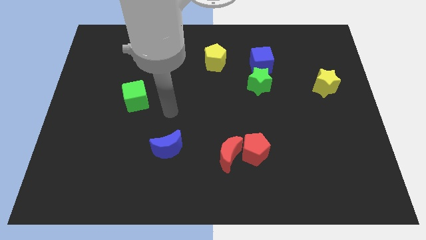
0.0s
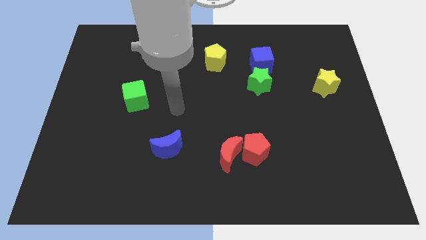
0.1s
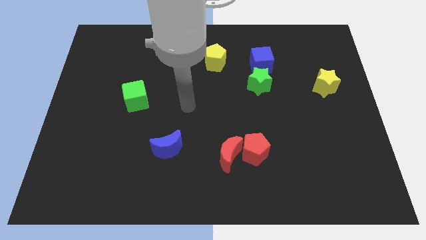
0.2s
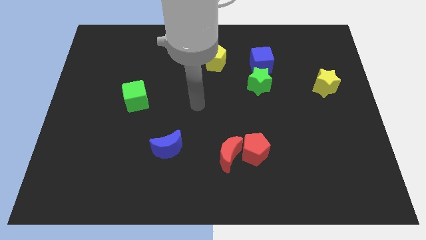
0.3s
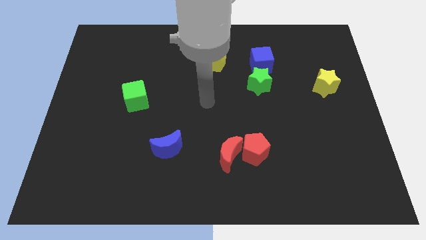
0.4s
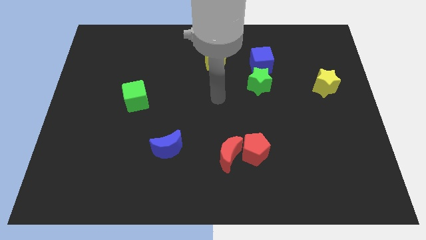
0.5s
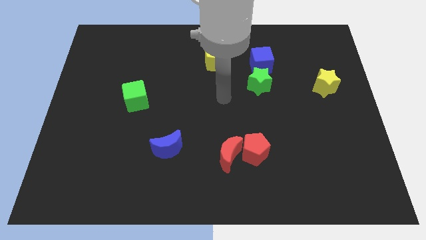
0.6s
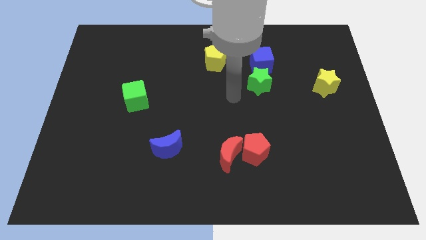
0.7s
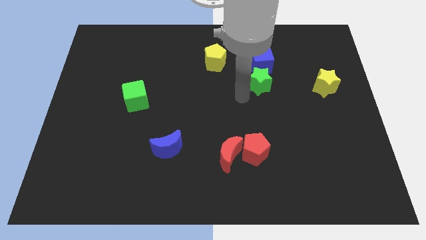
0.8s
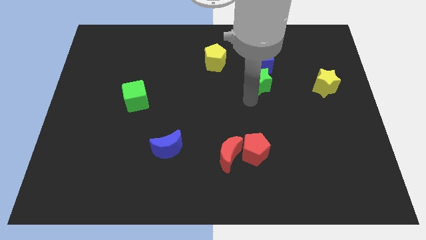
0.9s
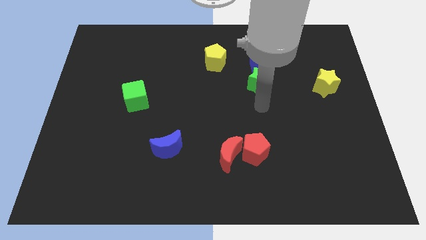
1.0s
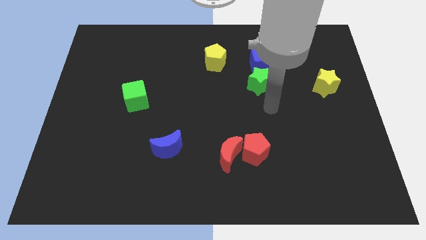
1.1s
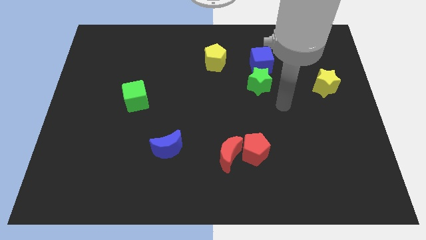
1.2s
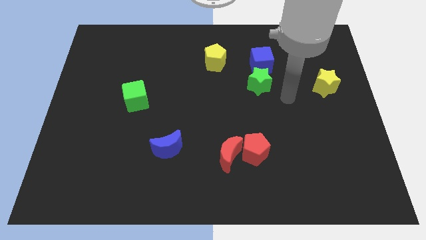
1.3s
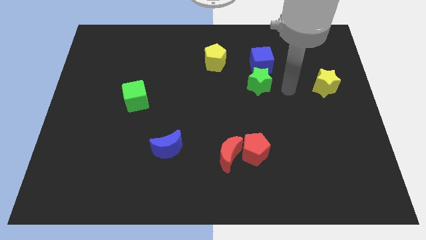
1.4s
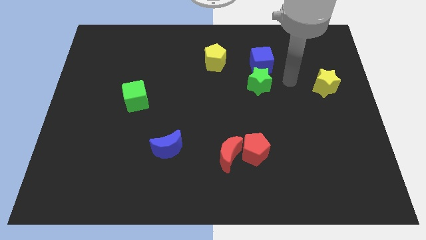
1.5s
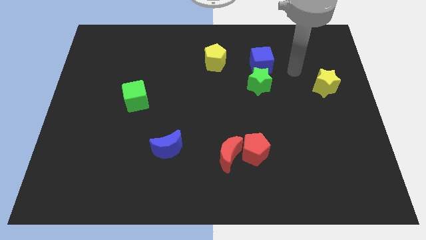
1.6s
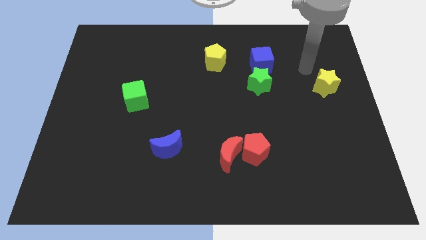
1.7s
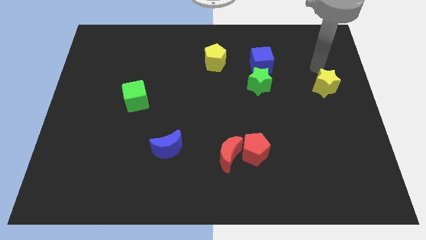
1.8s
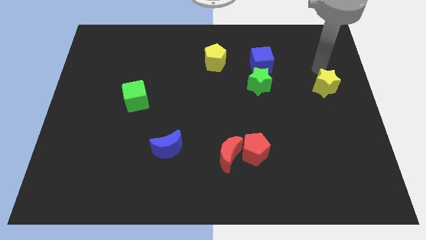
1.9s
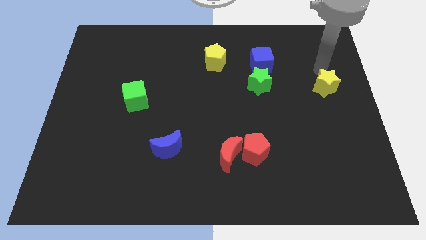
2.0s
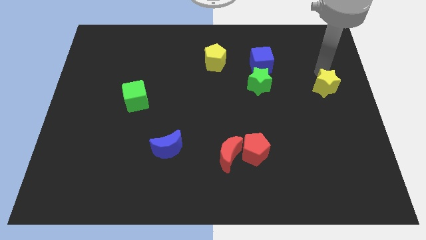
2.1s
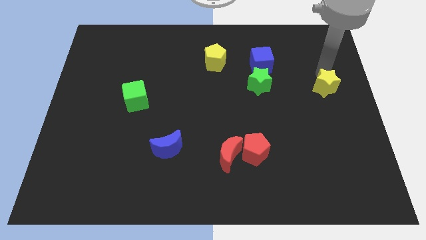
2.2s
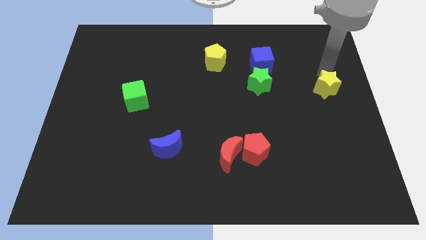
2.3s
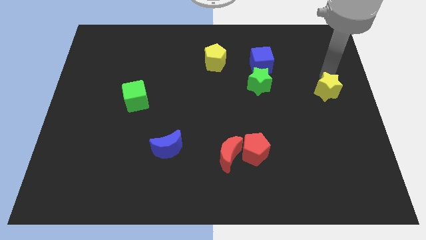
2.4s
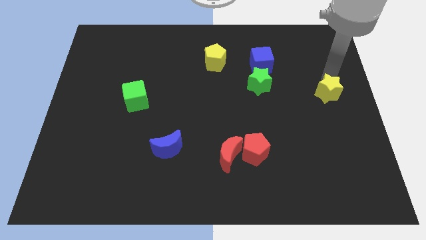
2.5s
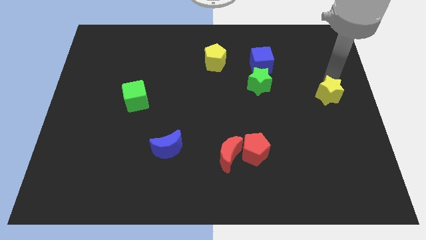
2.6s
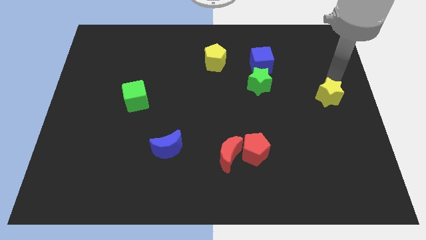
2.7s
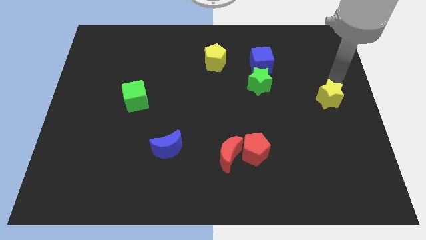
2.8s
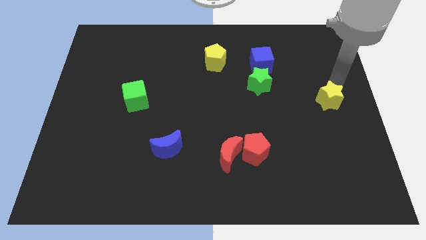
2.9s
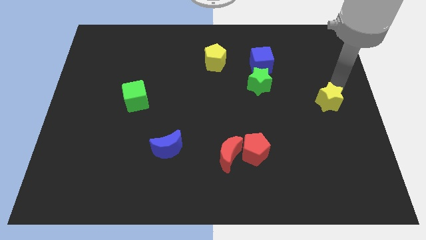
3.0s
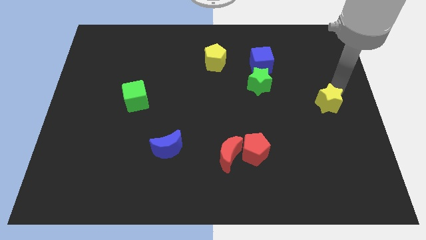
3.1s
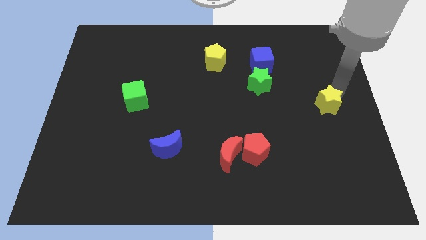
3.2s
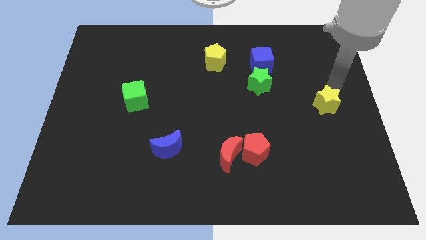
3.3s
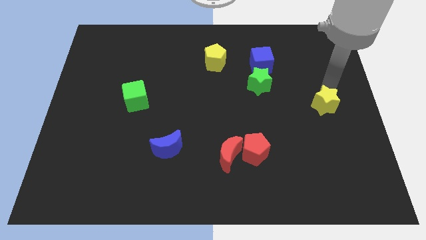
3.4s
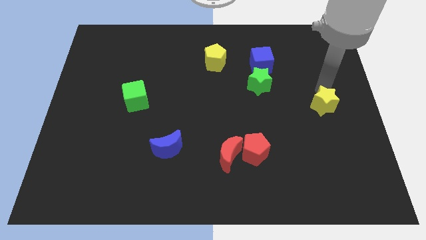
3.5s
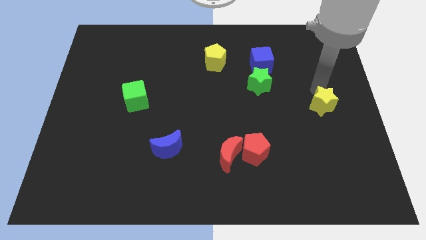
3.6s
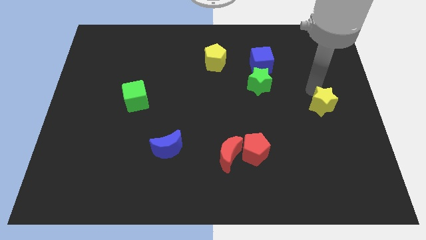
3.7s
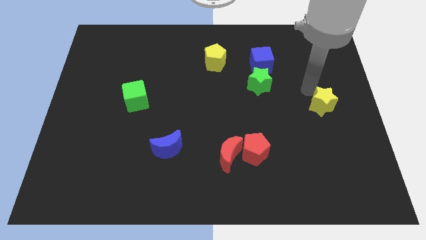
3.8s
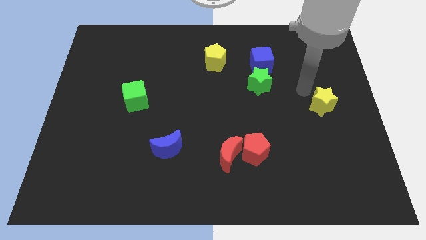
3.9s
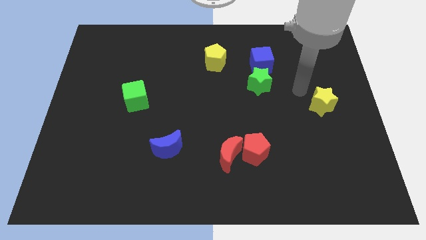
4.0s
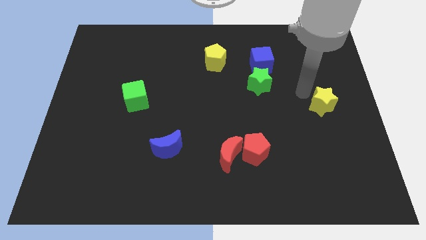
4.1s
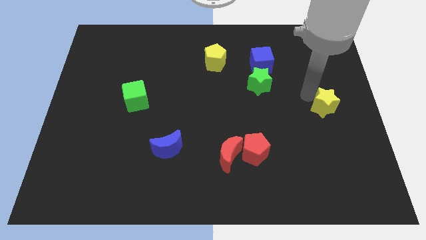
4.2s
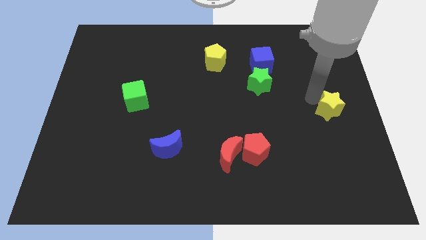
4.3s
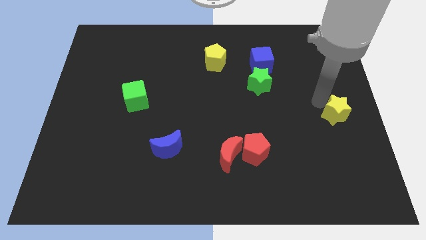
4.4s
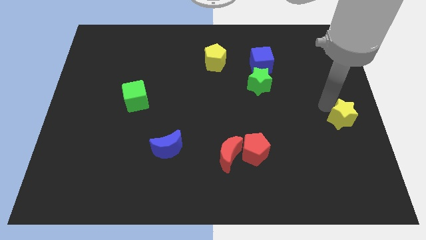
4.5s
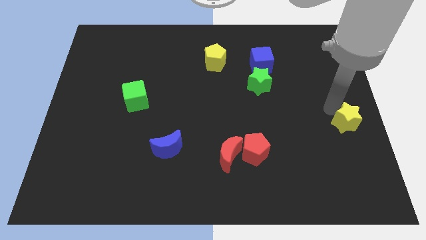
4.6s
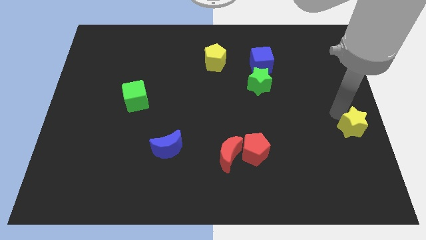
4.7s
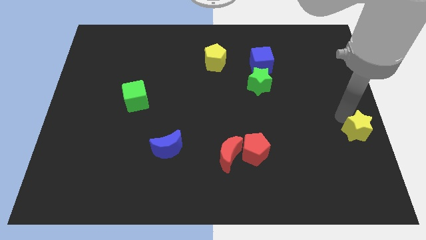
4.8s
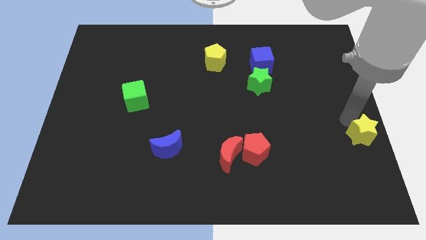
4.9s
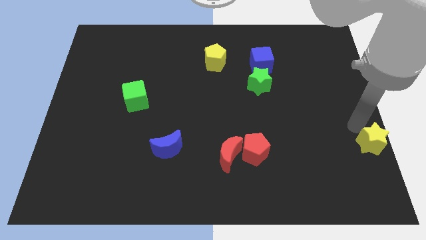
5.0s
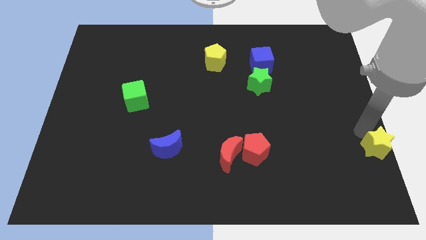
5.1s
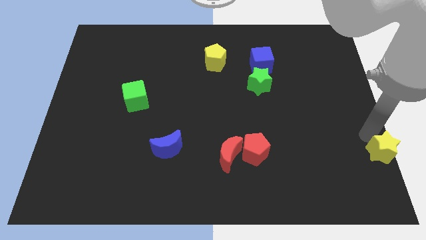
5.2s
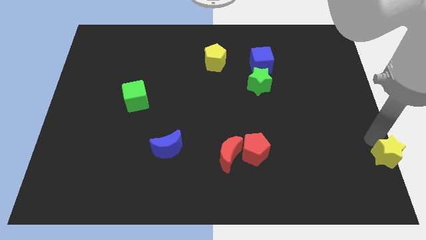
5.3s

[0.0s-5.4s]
push the yellow star to the bottom right

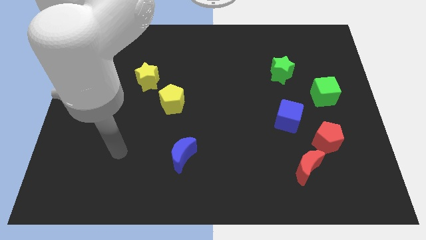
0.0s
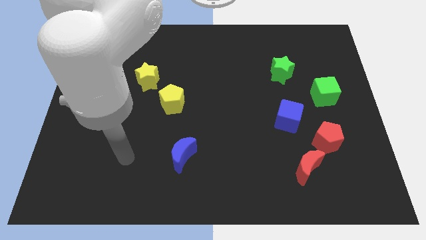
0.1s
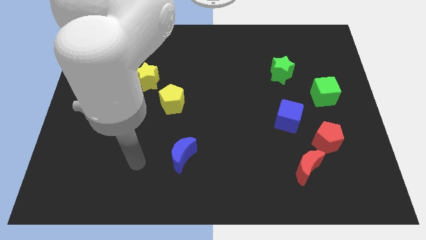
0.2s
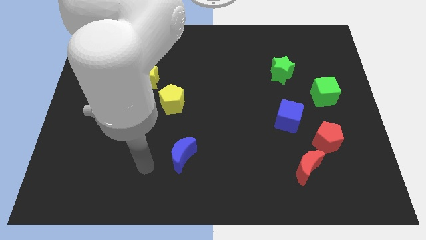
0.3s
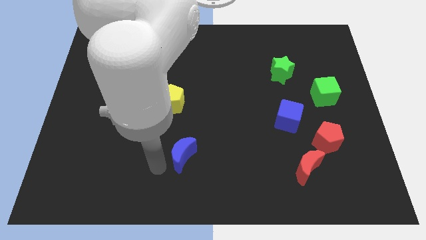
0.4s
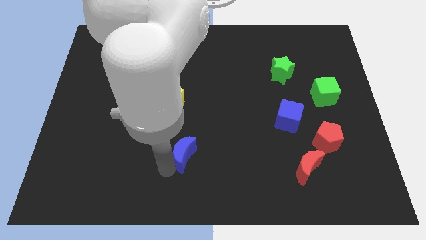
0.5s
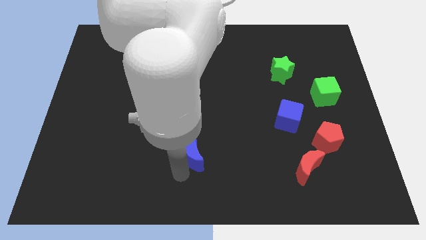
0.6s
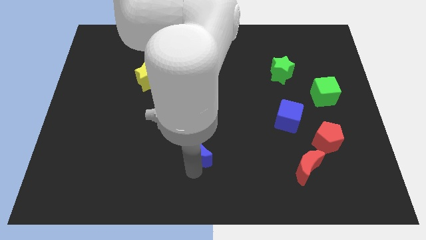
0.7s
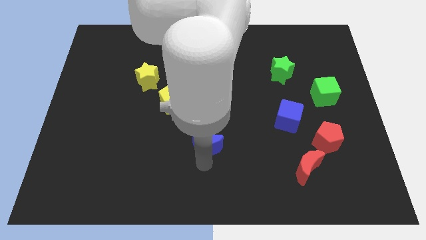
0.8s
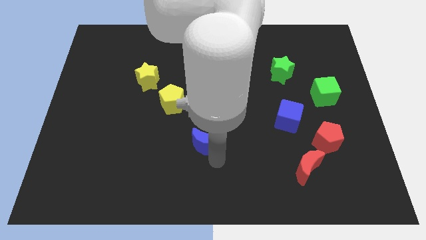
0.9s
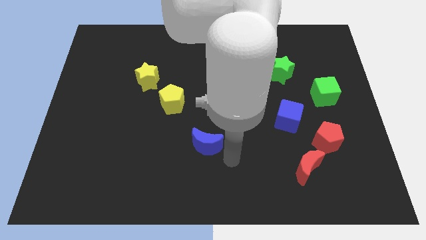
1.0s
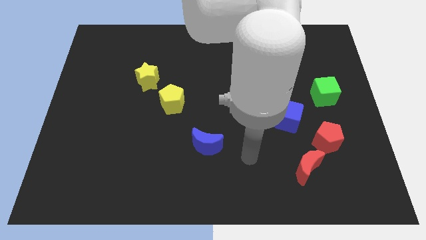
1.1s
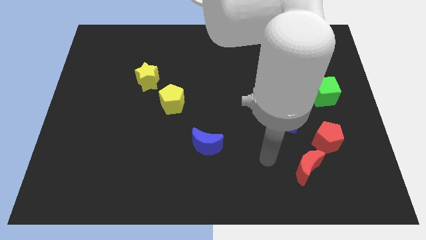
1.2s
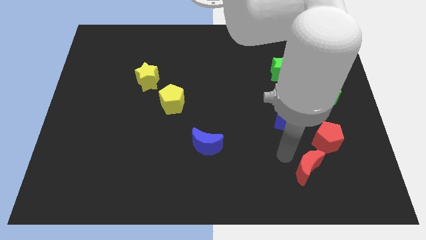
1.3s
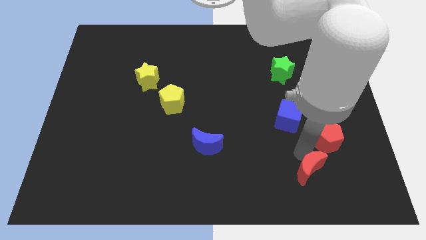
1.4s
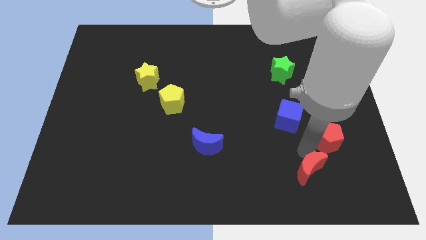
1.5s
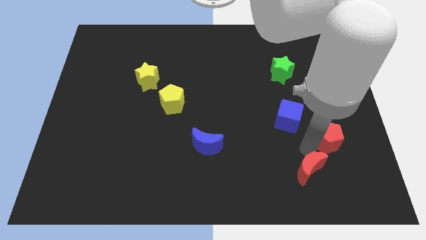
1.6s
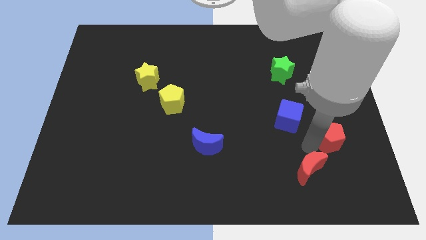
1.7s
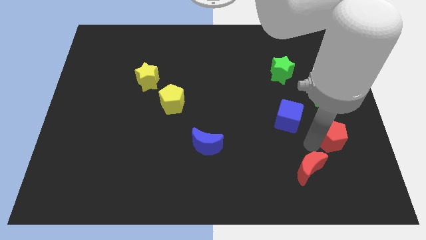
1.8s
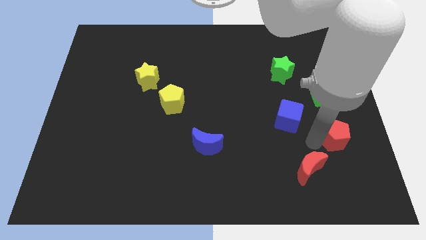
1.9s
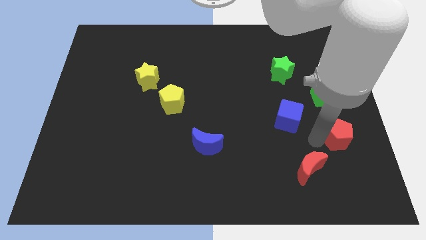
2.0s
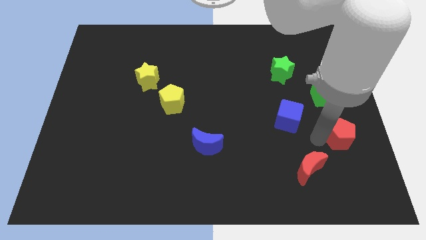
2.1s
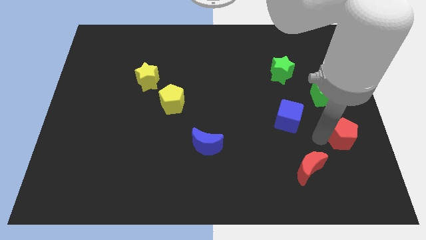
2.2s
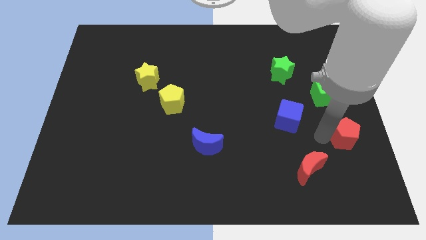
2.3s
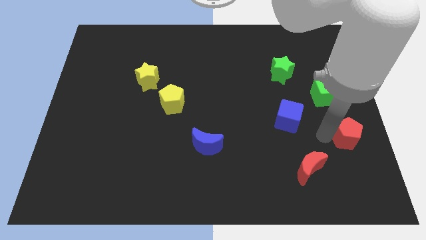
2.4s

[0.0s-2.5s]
move the red pentagon to the right side of the board
